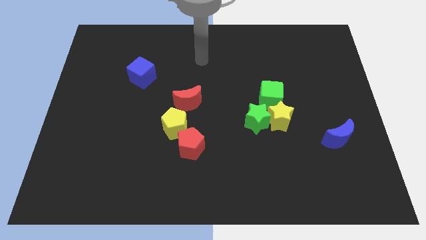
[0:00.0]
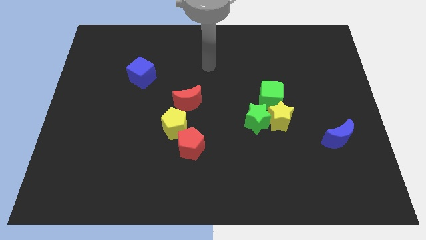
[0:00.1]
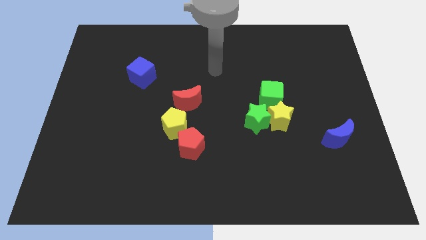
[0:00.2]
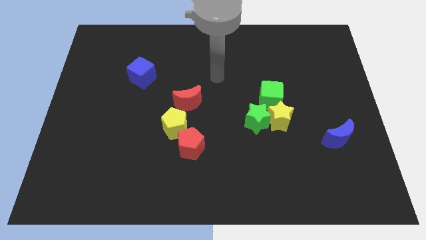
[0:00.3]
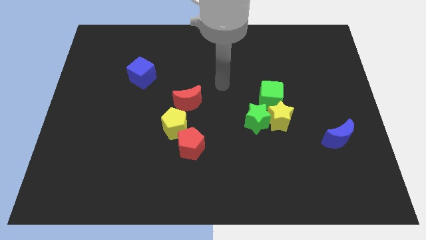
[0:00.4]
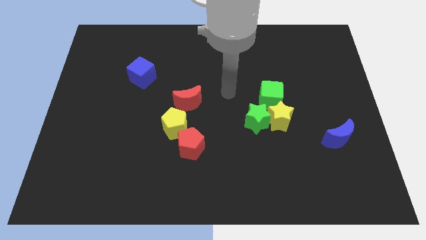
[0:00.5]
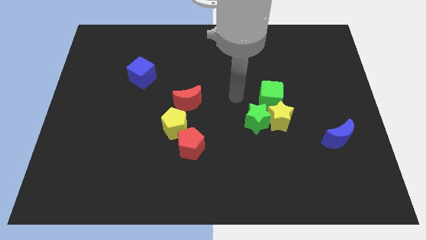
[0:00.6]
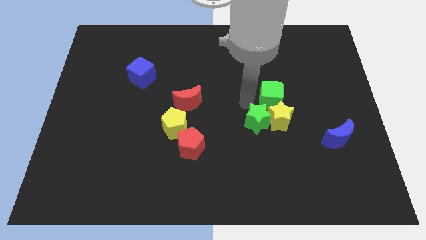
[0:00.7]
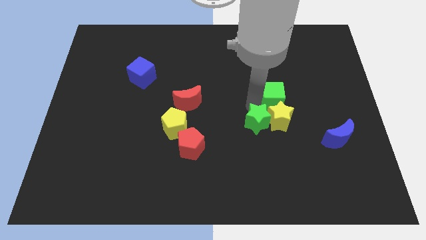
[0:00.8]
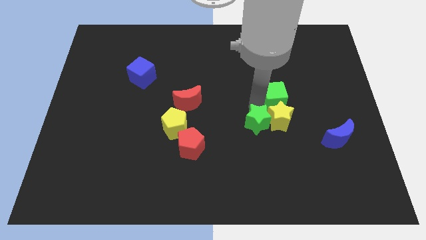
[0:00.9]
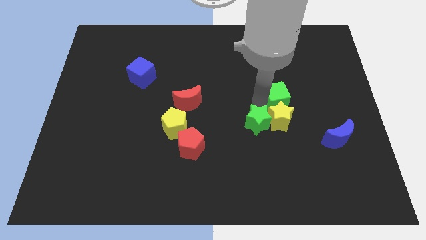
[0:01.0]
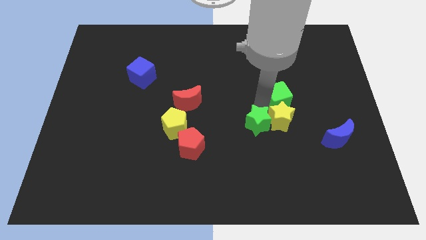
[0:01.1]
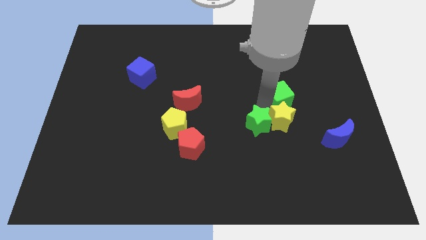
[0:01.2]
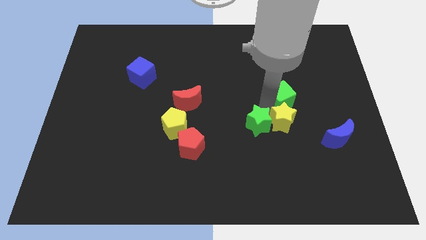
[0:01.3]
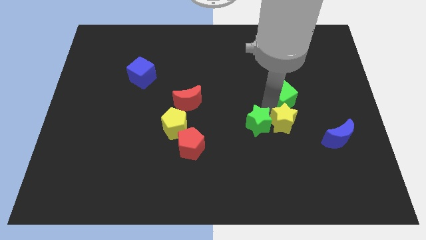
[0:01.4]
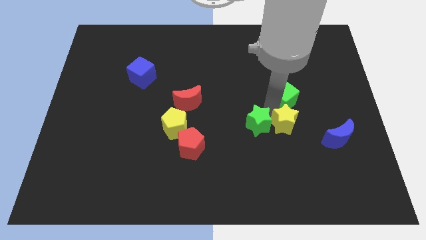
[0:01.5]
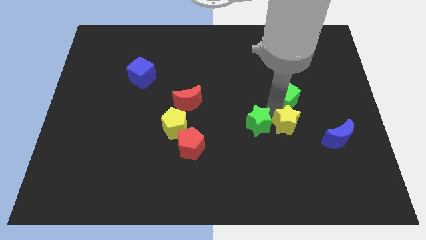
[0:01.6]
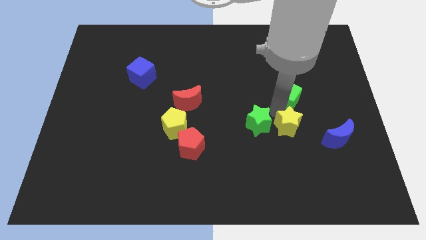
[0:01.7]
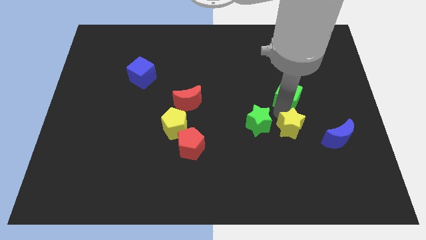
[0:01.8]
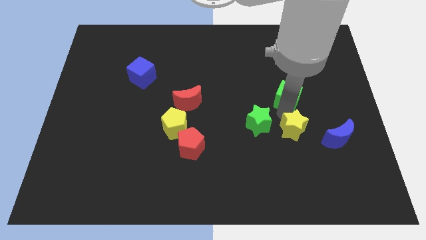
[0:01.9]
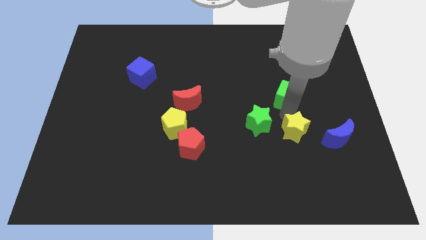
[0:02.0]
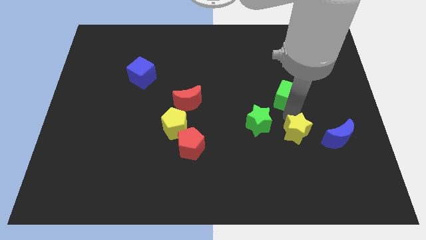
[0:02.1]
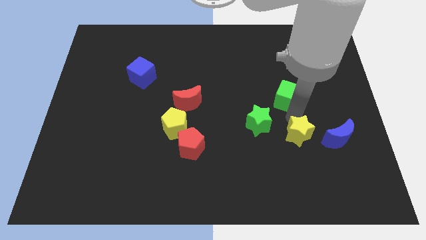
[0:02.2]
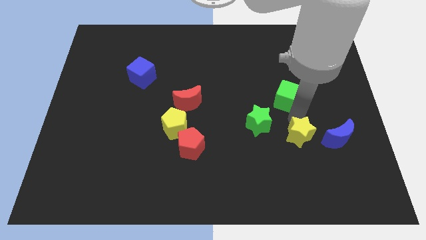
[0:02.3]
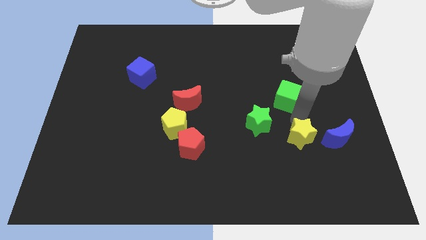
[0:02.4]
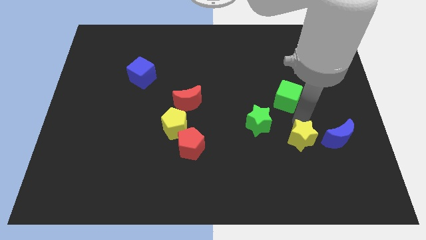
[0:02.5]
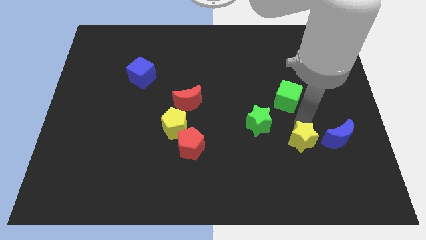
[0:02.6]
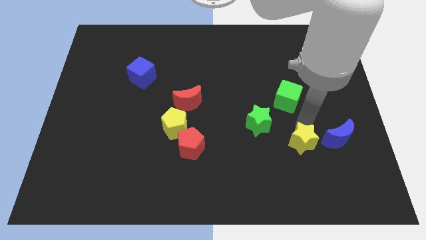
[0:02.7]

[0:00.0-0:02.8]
pull the yellow star apart from the green star and green cube

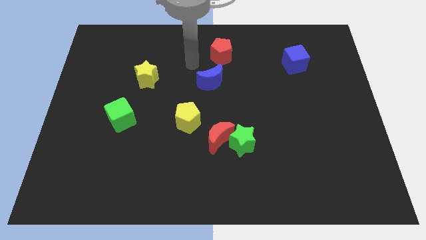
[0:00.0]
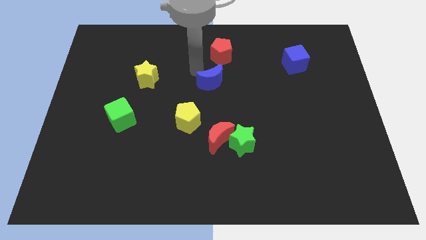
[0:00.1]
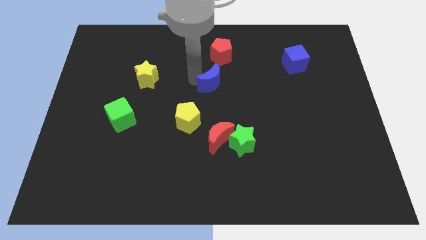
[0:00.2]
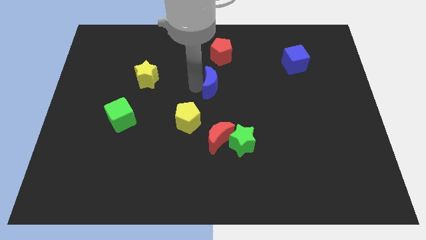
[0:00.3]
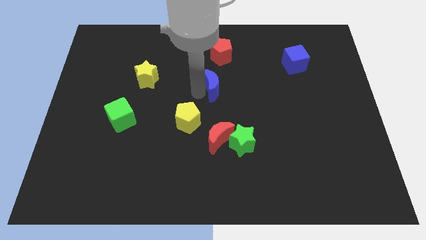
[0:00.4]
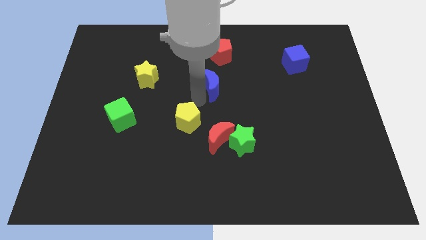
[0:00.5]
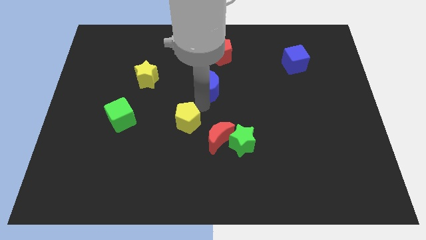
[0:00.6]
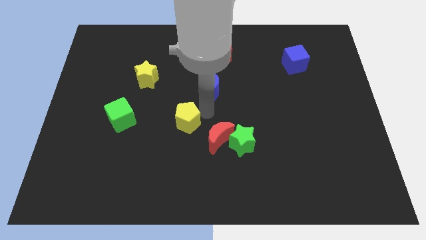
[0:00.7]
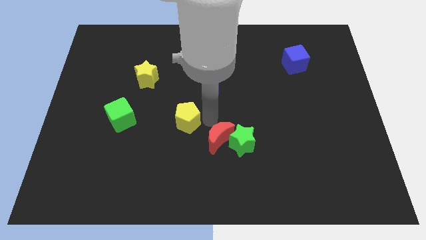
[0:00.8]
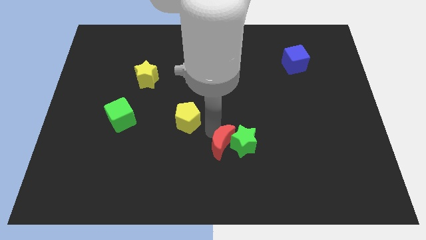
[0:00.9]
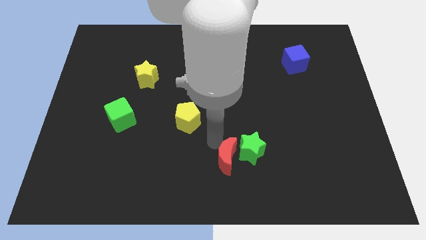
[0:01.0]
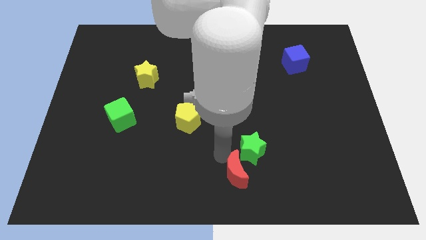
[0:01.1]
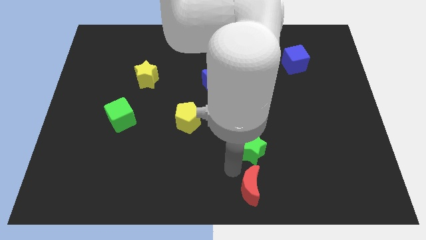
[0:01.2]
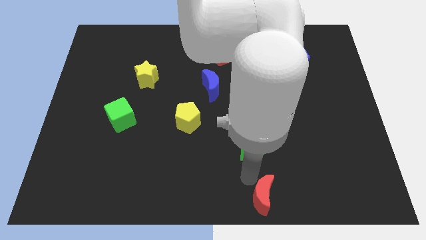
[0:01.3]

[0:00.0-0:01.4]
move the green star away from the red moon

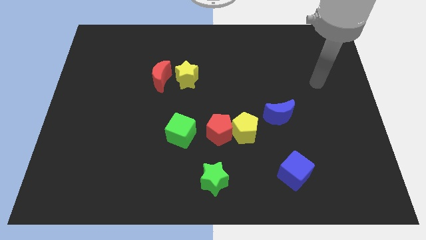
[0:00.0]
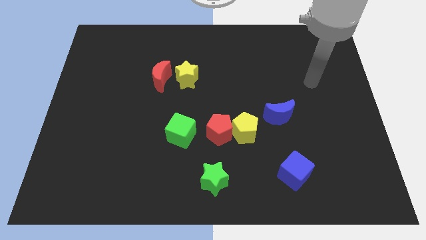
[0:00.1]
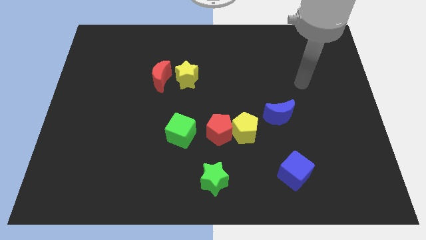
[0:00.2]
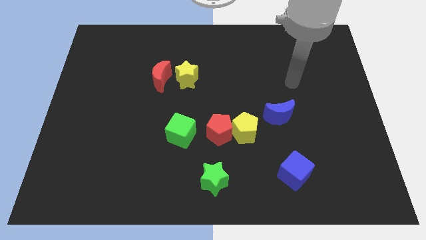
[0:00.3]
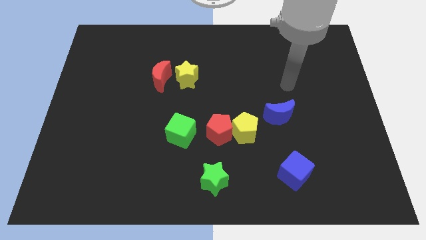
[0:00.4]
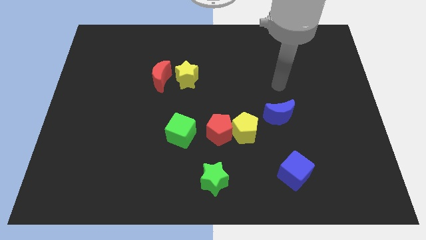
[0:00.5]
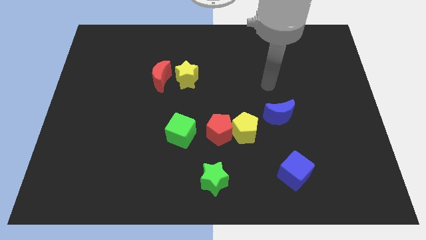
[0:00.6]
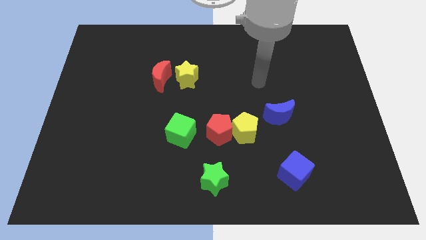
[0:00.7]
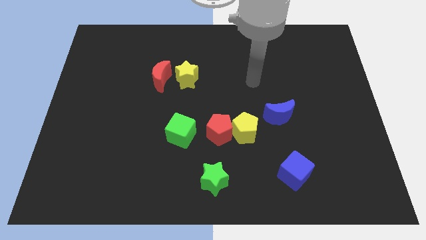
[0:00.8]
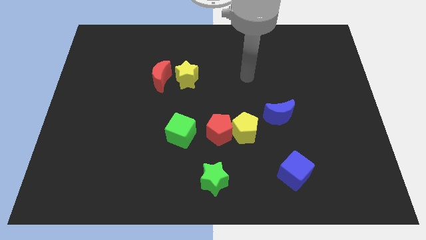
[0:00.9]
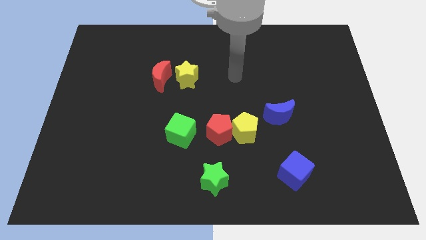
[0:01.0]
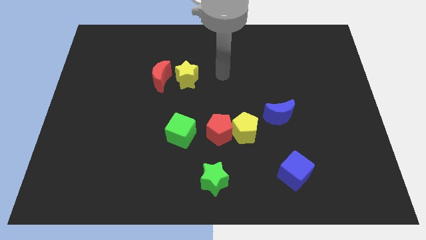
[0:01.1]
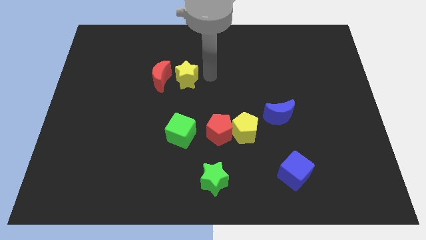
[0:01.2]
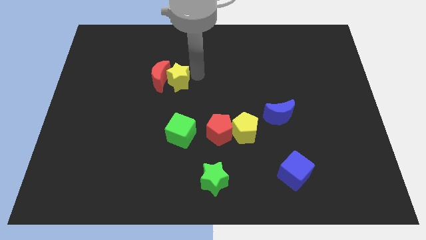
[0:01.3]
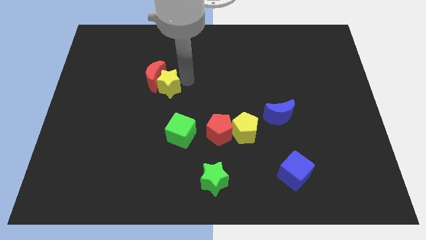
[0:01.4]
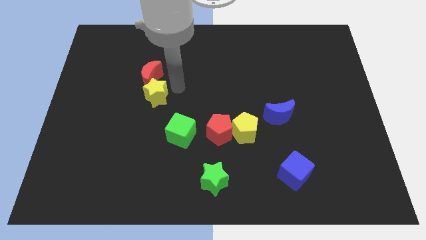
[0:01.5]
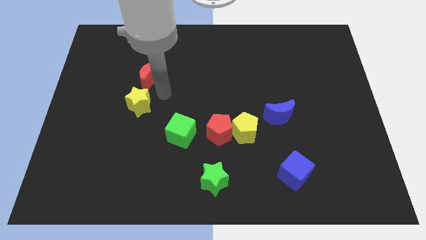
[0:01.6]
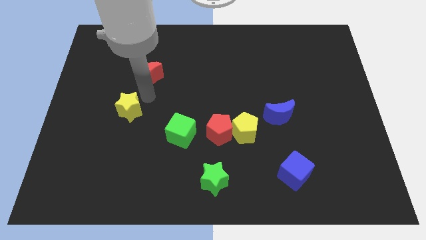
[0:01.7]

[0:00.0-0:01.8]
move the red moon away from the yellow star

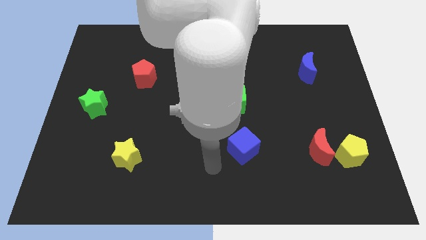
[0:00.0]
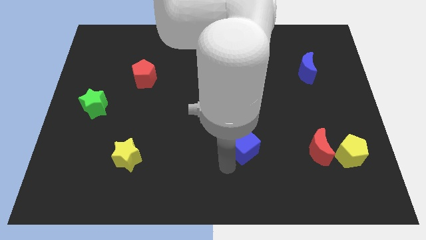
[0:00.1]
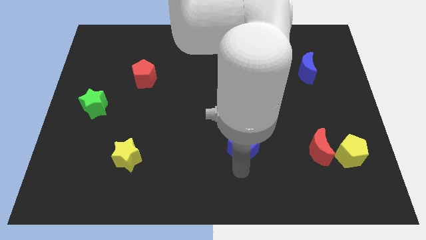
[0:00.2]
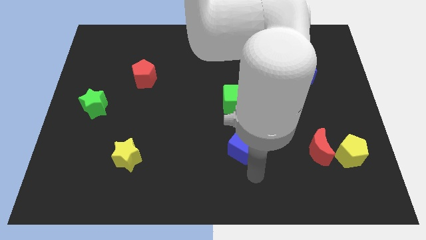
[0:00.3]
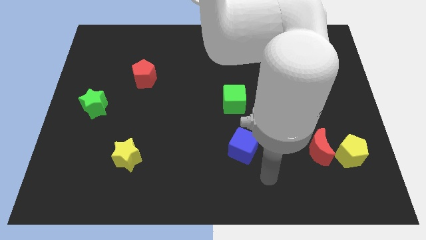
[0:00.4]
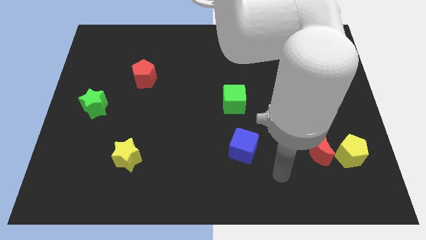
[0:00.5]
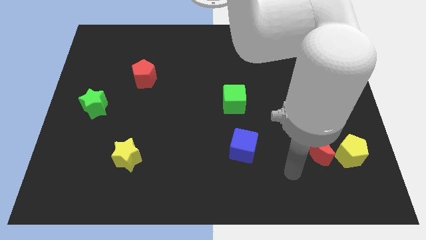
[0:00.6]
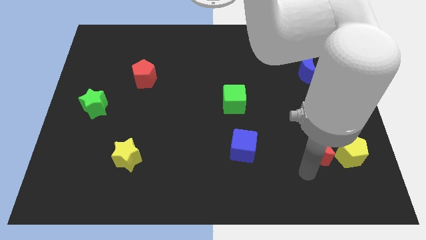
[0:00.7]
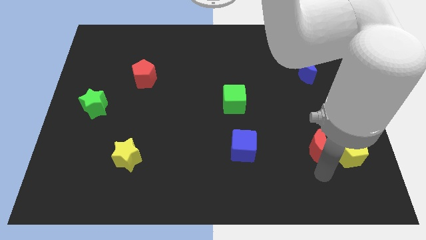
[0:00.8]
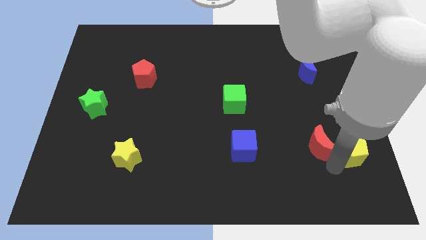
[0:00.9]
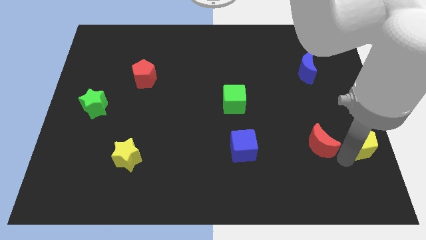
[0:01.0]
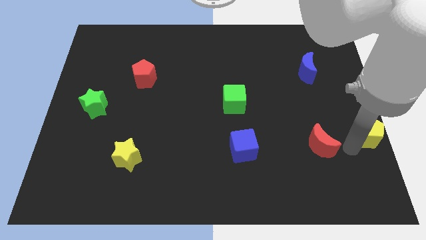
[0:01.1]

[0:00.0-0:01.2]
move the red moon away from the yellow pentagon

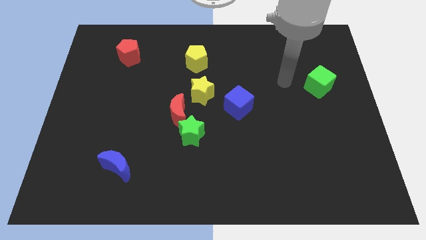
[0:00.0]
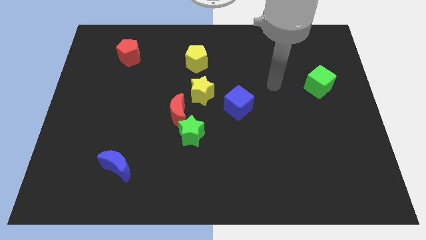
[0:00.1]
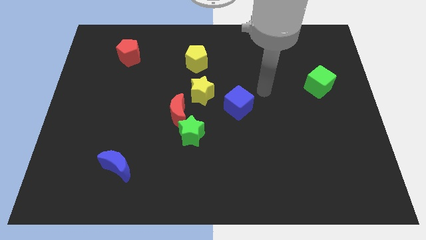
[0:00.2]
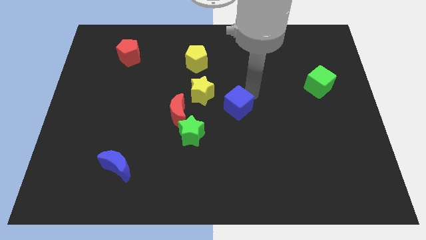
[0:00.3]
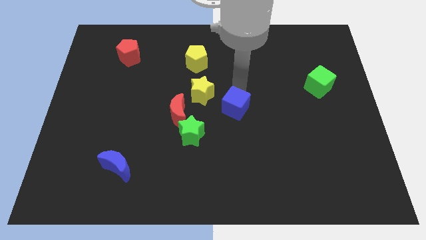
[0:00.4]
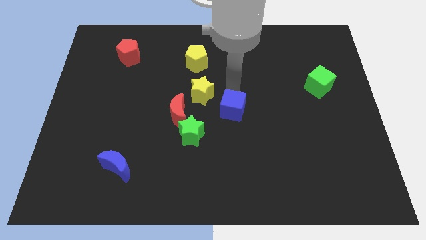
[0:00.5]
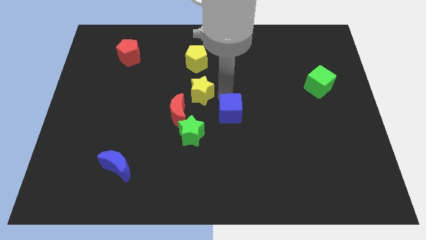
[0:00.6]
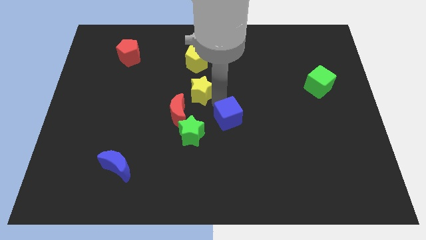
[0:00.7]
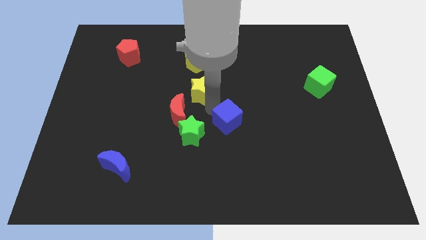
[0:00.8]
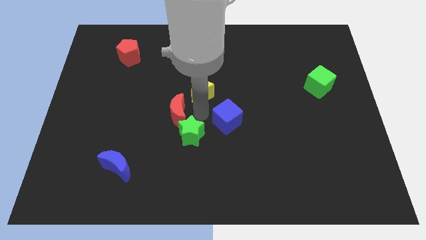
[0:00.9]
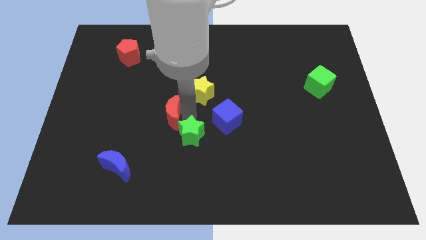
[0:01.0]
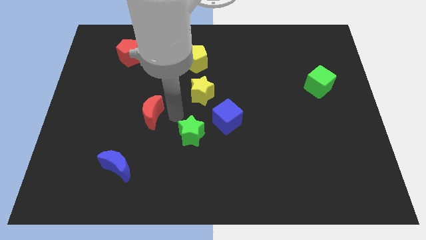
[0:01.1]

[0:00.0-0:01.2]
separate the green star from the red moon

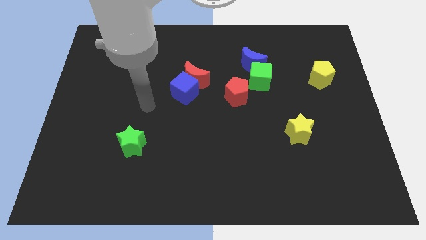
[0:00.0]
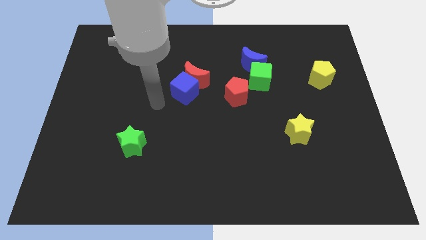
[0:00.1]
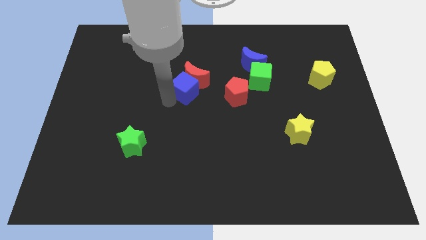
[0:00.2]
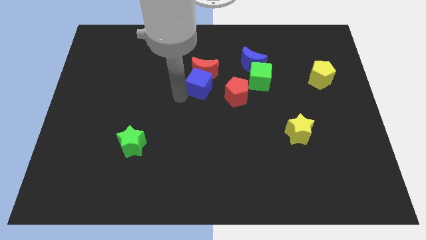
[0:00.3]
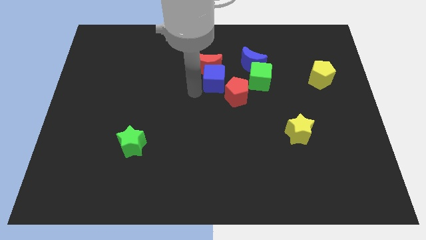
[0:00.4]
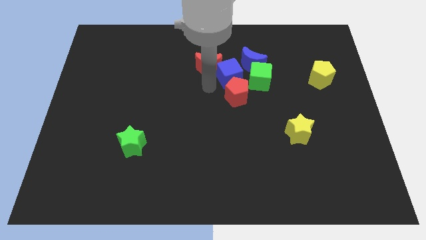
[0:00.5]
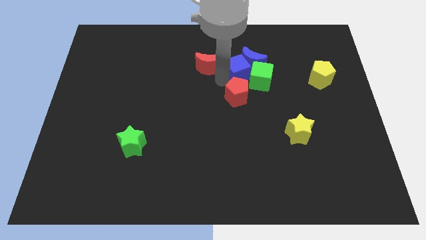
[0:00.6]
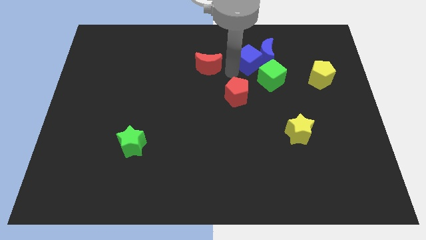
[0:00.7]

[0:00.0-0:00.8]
pull the red moon apart from the blue cube

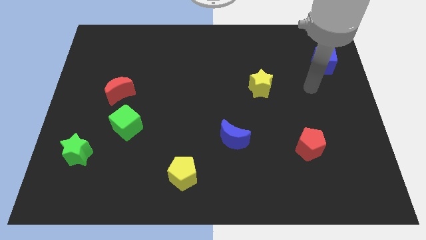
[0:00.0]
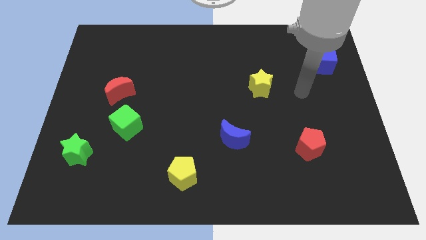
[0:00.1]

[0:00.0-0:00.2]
pull the red moon apart from the green cube

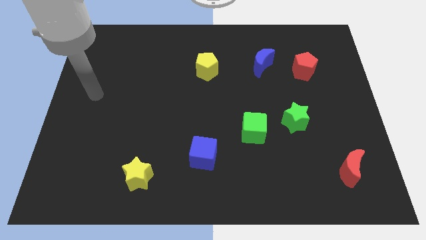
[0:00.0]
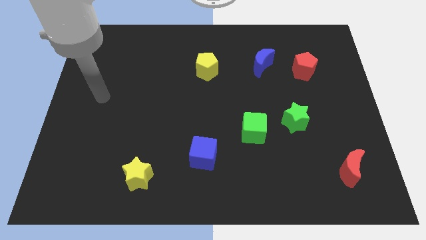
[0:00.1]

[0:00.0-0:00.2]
separate the green cube from the green star
